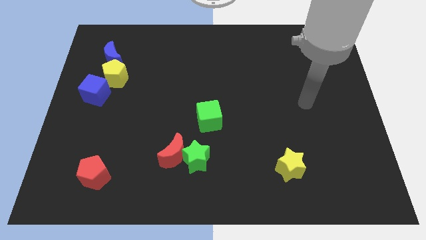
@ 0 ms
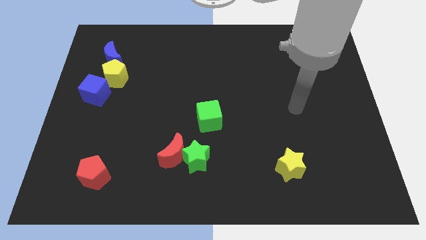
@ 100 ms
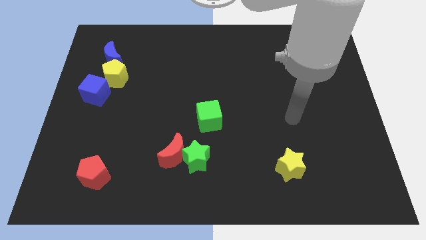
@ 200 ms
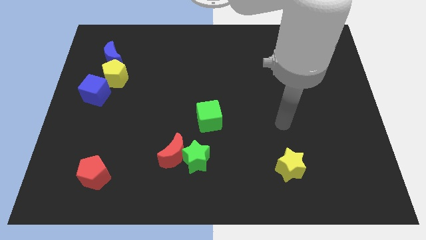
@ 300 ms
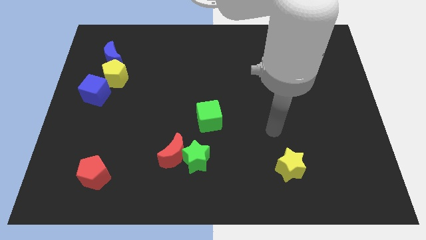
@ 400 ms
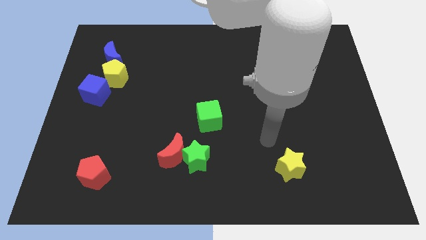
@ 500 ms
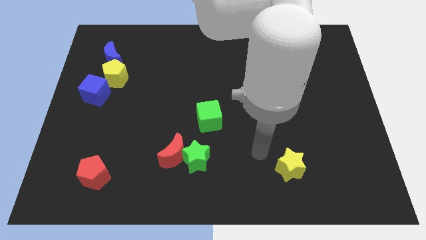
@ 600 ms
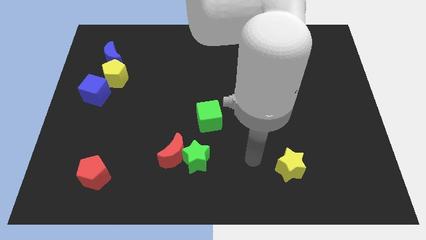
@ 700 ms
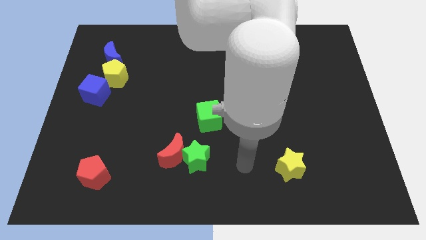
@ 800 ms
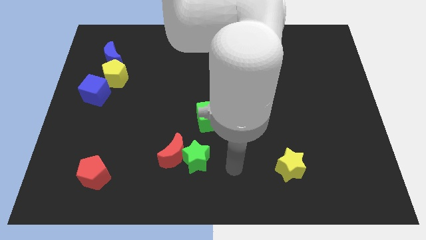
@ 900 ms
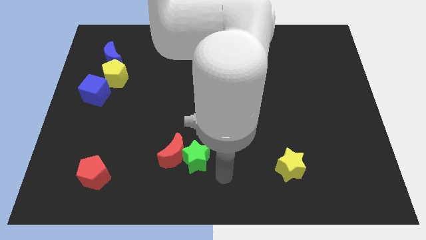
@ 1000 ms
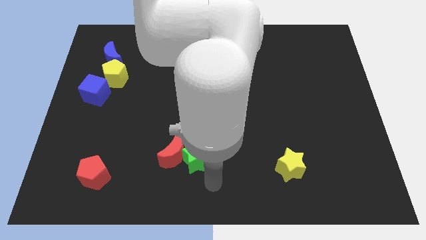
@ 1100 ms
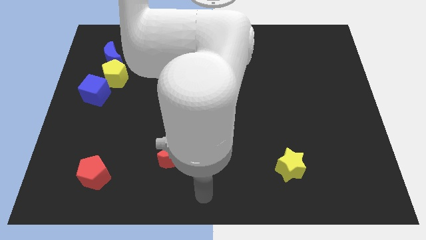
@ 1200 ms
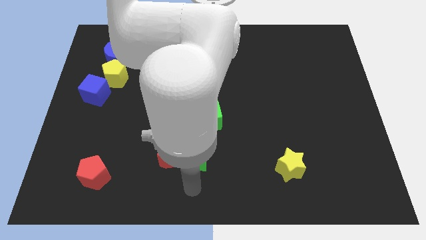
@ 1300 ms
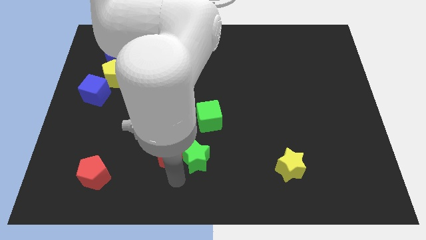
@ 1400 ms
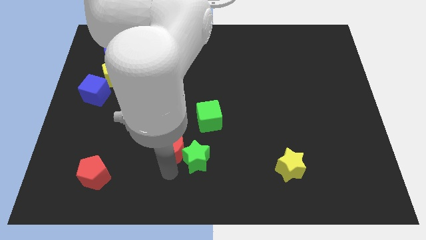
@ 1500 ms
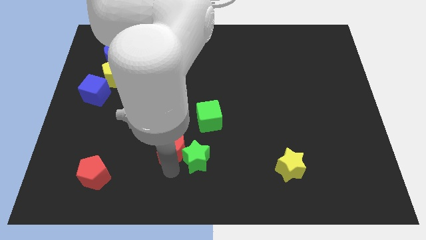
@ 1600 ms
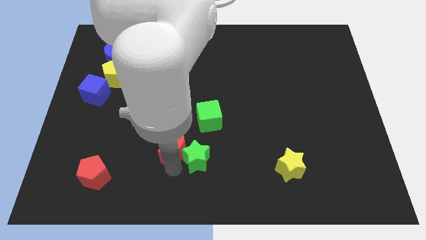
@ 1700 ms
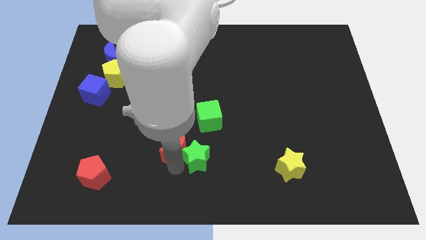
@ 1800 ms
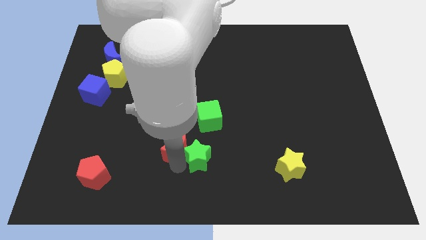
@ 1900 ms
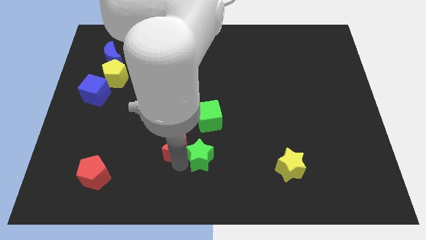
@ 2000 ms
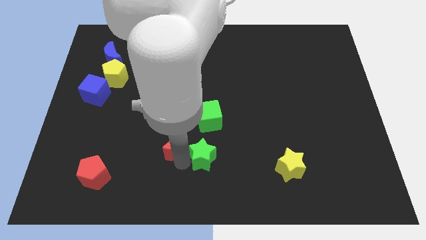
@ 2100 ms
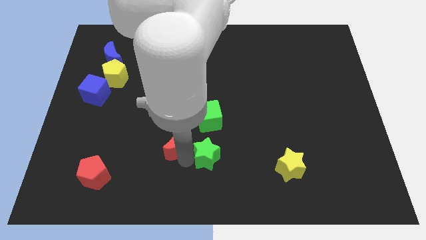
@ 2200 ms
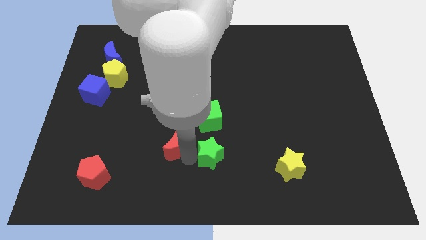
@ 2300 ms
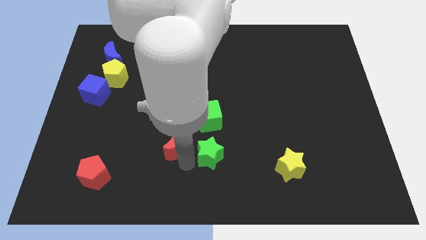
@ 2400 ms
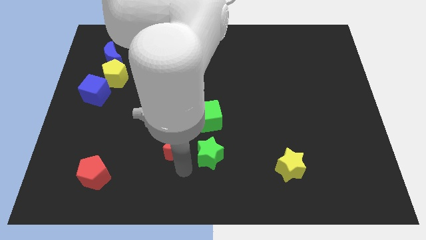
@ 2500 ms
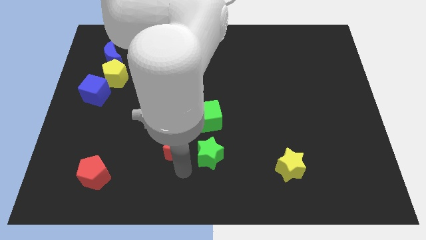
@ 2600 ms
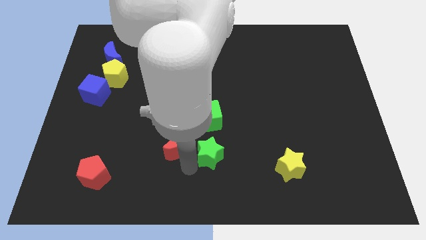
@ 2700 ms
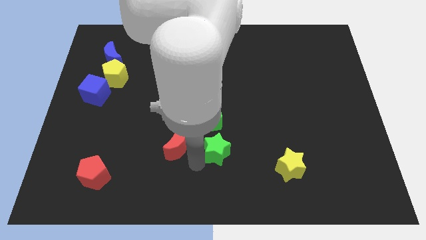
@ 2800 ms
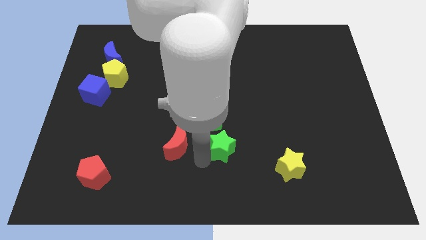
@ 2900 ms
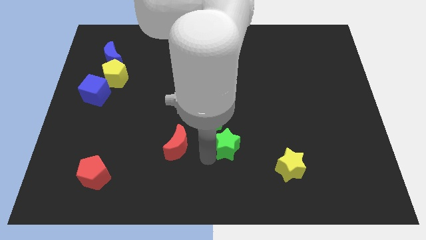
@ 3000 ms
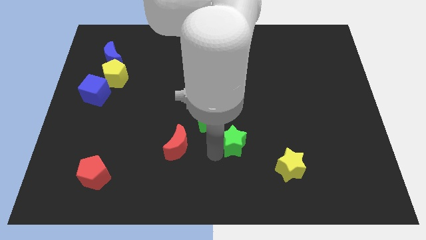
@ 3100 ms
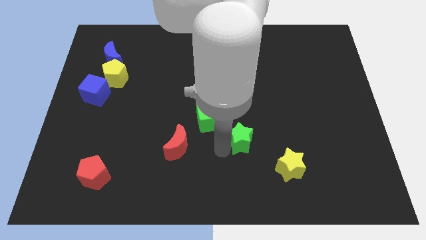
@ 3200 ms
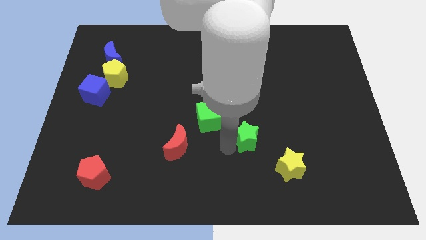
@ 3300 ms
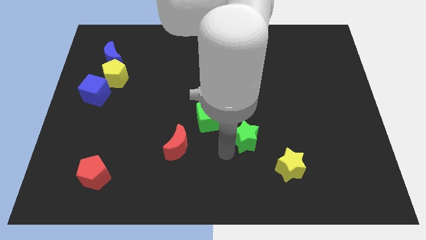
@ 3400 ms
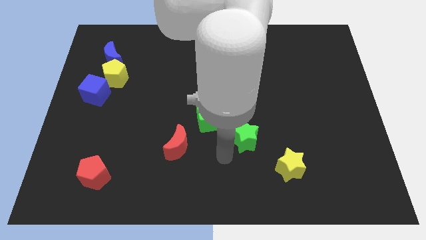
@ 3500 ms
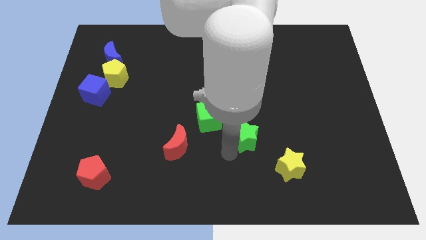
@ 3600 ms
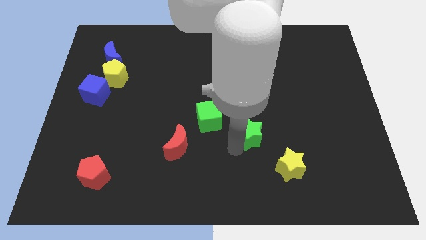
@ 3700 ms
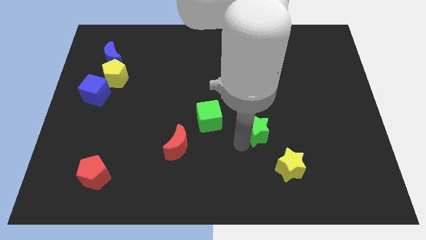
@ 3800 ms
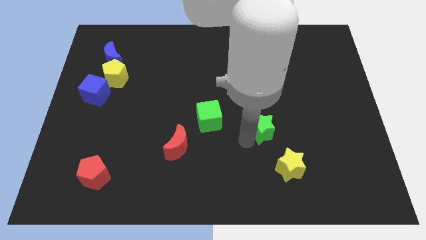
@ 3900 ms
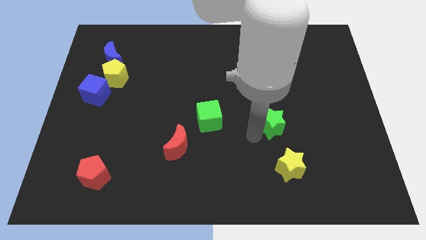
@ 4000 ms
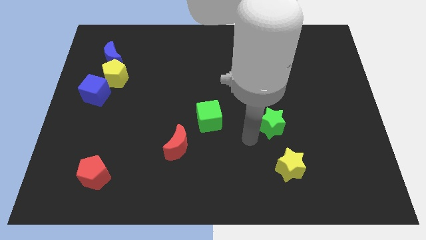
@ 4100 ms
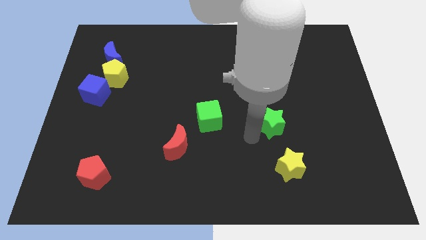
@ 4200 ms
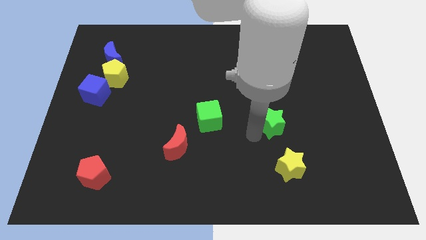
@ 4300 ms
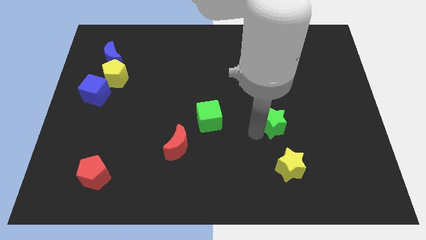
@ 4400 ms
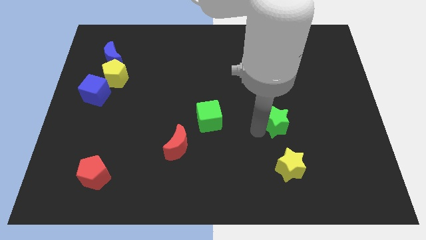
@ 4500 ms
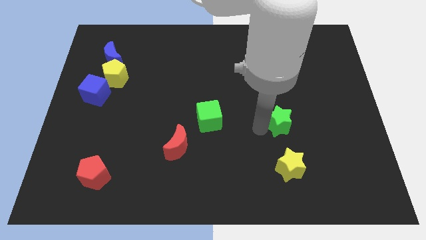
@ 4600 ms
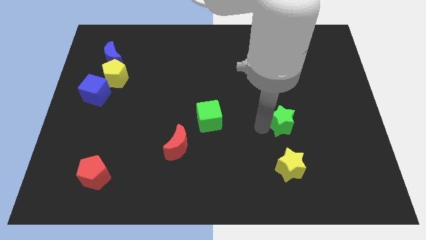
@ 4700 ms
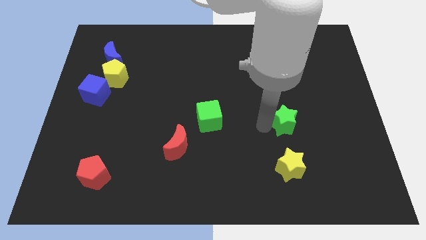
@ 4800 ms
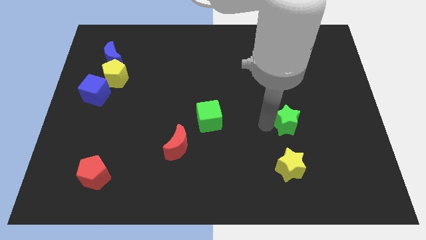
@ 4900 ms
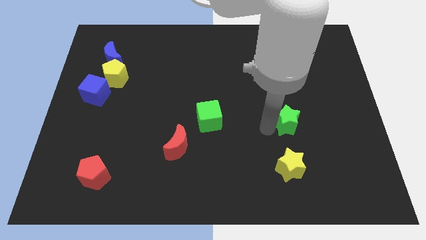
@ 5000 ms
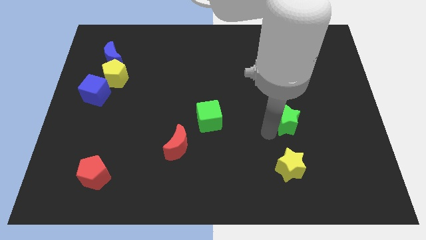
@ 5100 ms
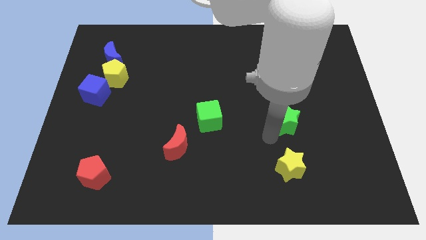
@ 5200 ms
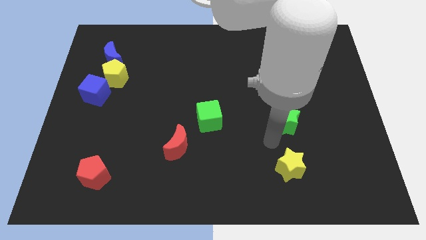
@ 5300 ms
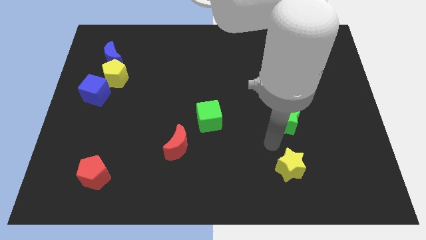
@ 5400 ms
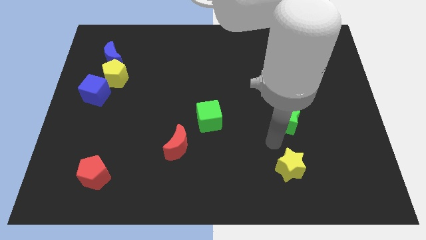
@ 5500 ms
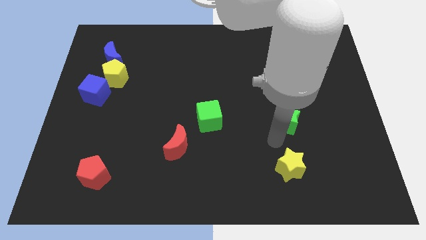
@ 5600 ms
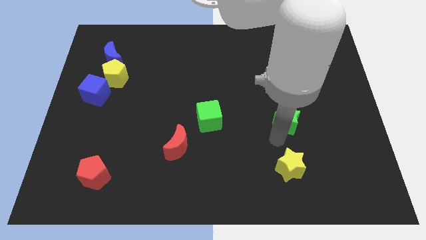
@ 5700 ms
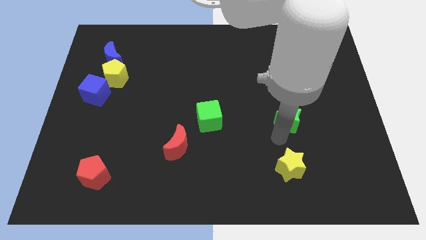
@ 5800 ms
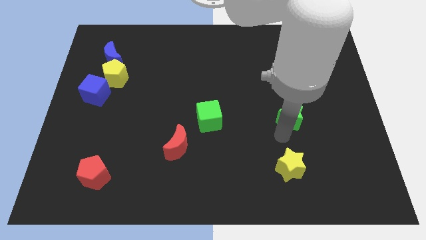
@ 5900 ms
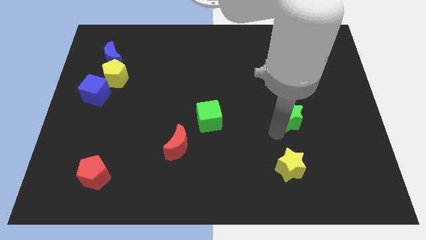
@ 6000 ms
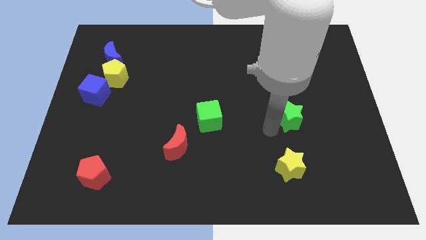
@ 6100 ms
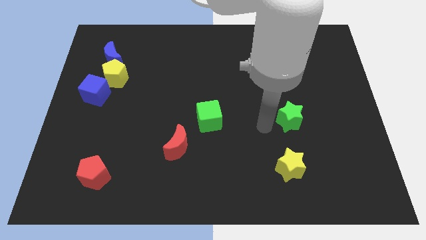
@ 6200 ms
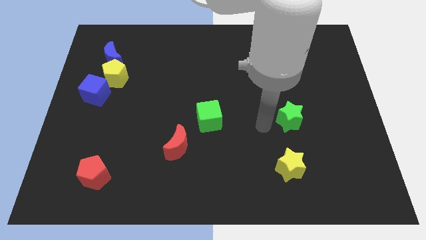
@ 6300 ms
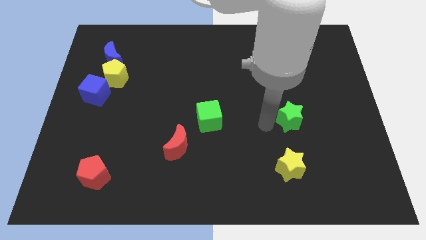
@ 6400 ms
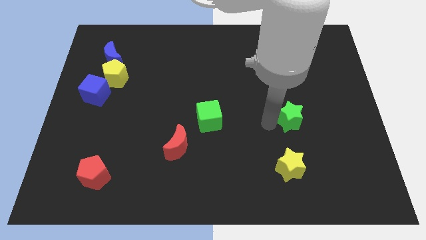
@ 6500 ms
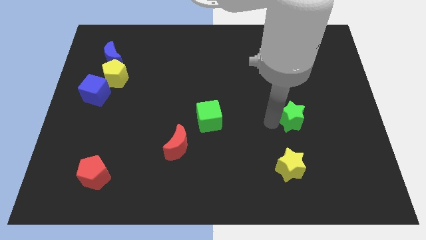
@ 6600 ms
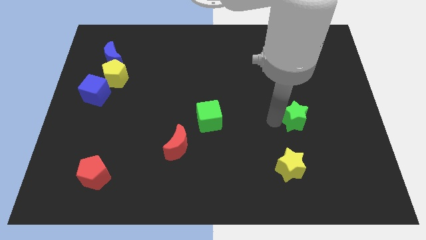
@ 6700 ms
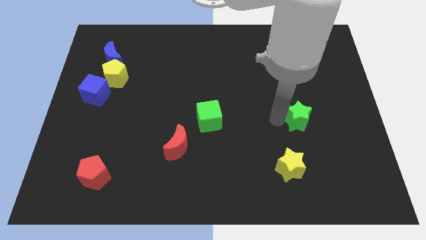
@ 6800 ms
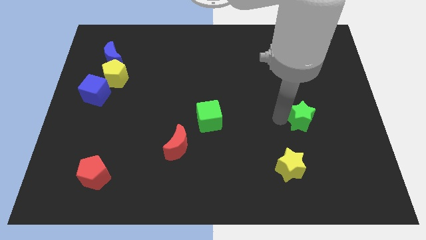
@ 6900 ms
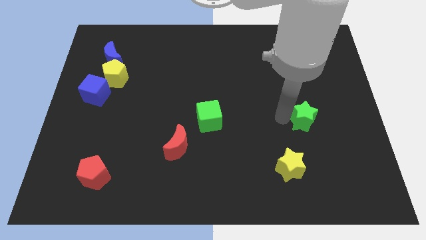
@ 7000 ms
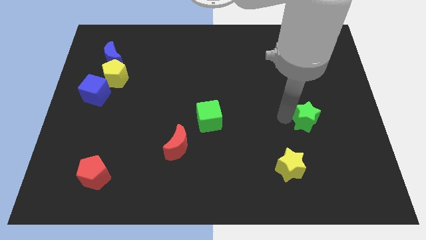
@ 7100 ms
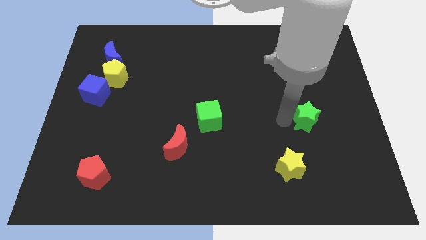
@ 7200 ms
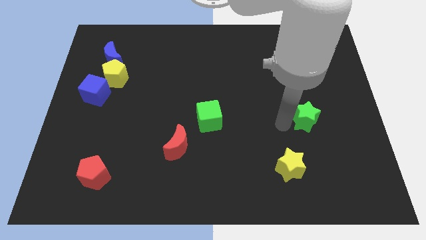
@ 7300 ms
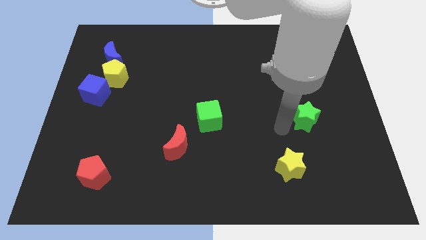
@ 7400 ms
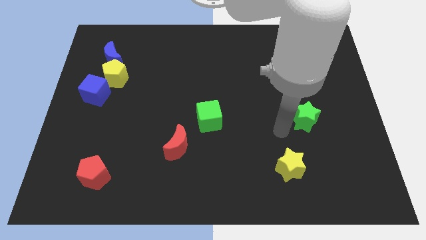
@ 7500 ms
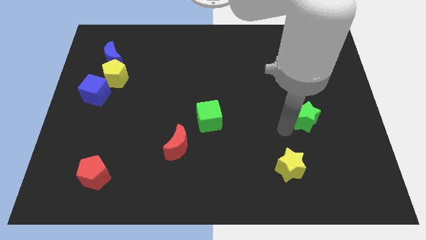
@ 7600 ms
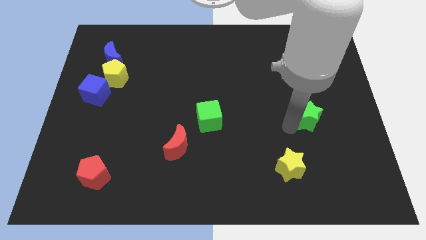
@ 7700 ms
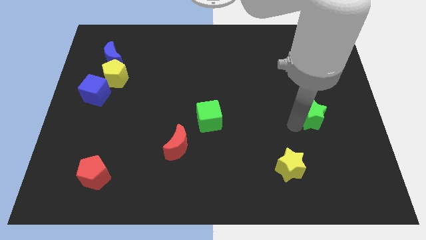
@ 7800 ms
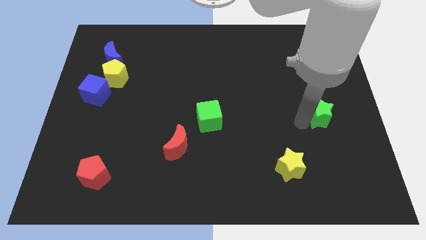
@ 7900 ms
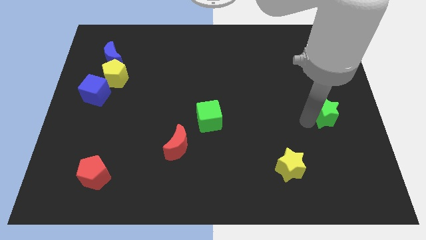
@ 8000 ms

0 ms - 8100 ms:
push the green star to the center right
